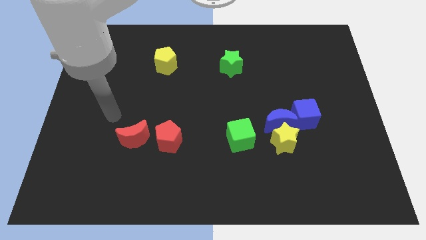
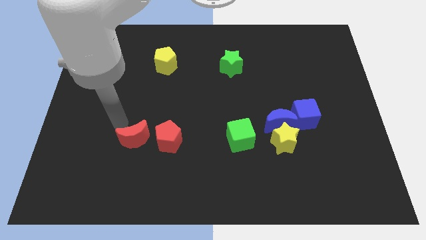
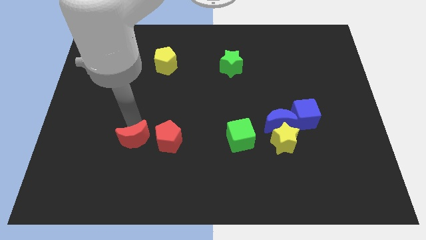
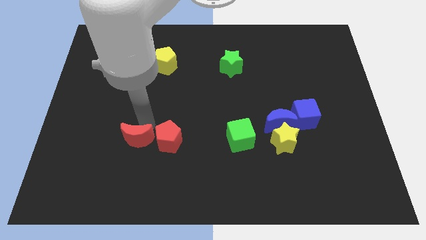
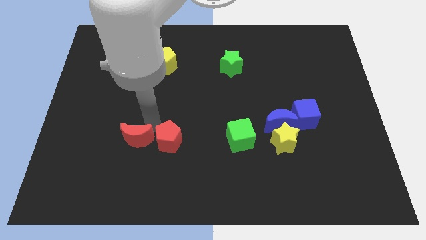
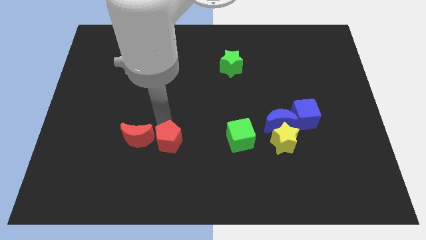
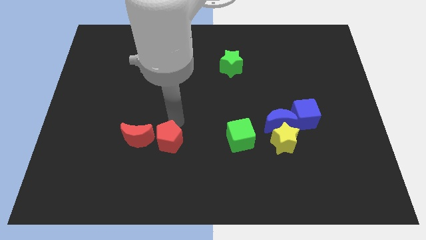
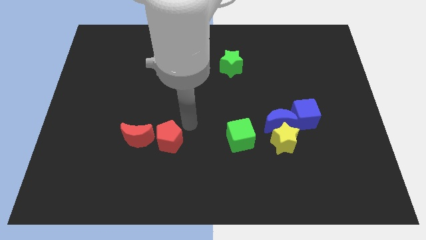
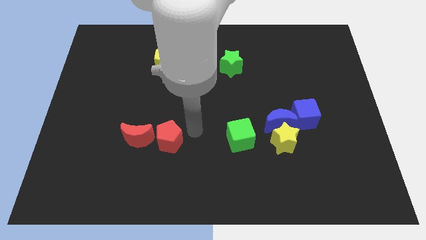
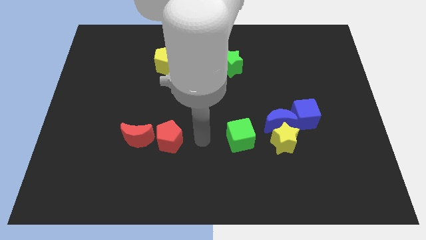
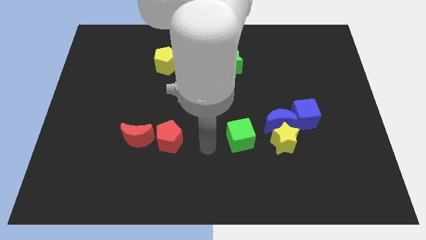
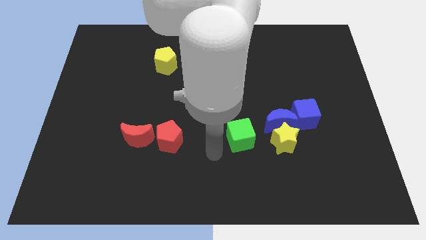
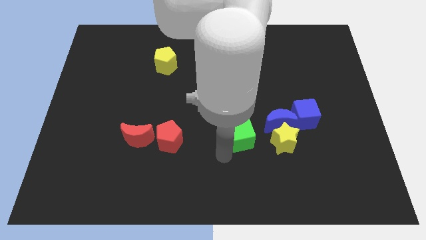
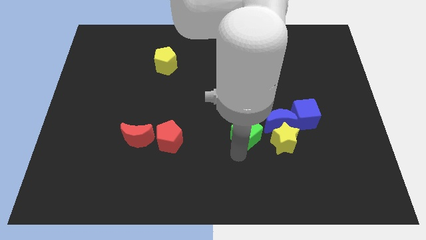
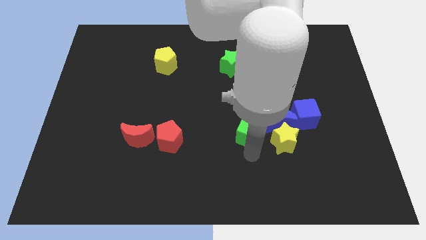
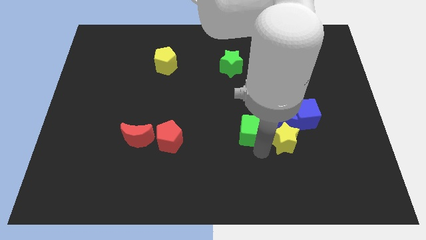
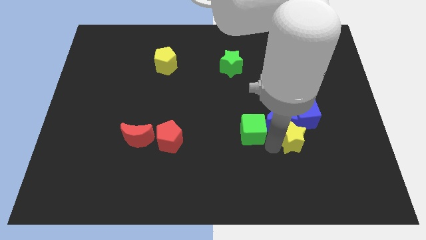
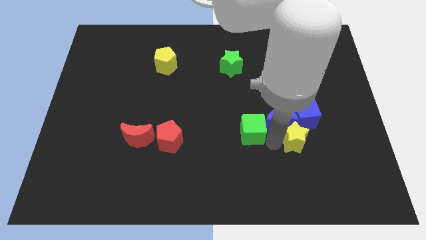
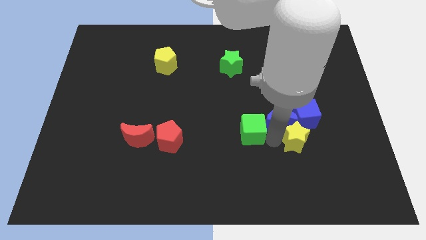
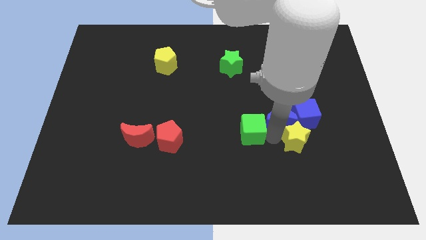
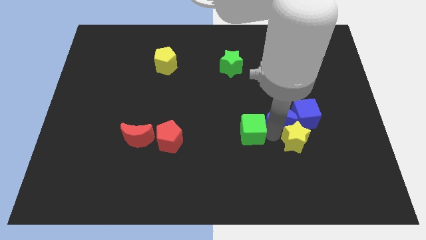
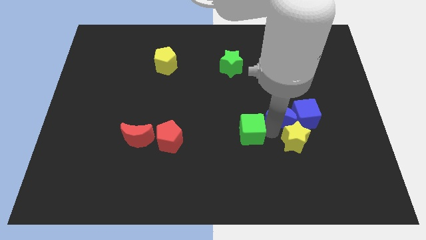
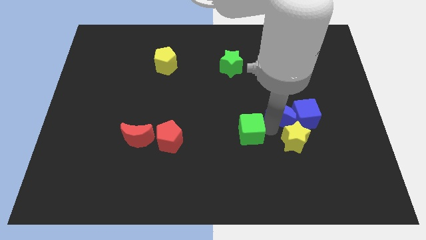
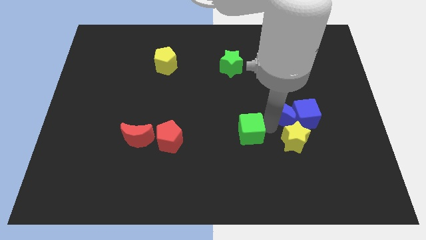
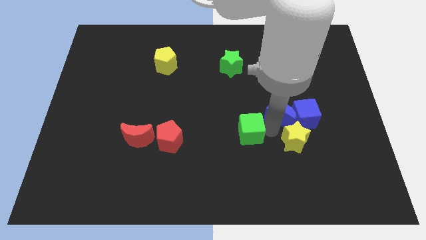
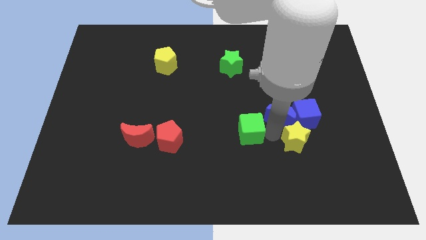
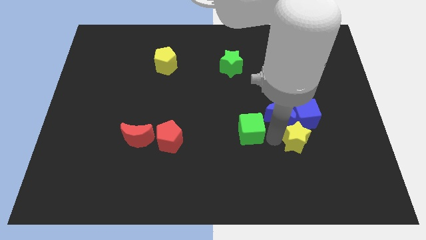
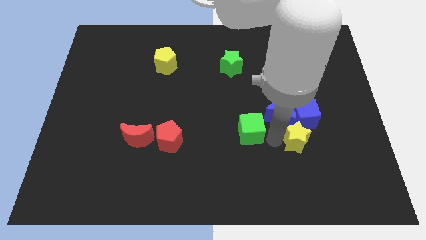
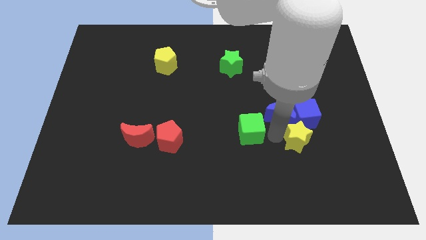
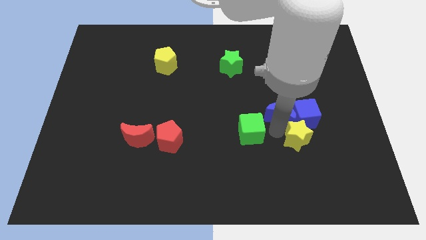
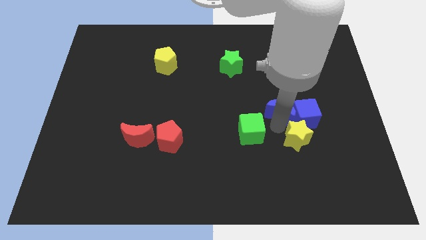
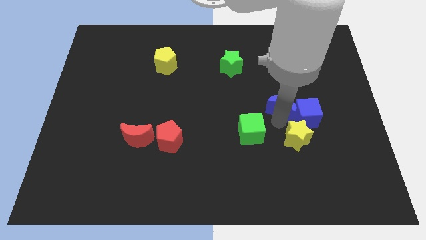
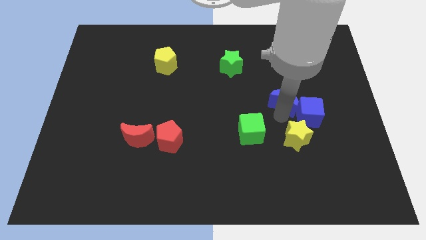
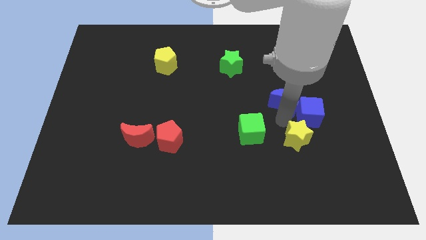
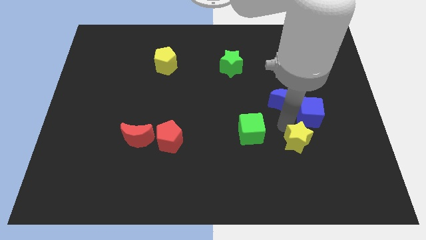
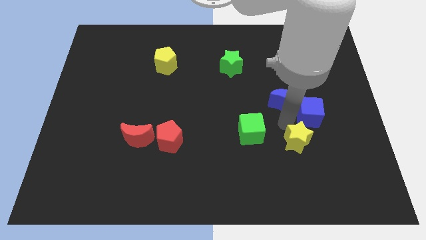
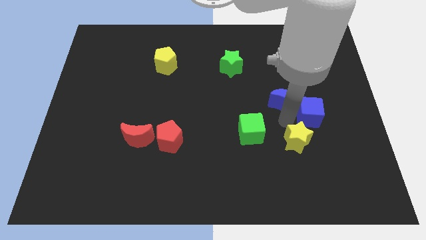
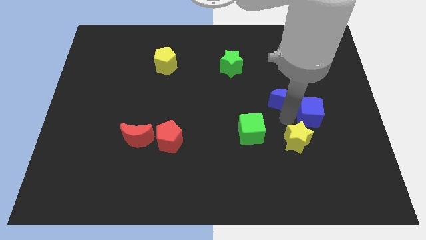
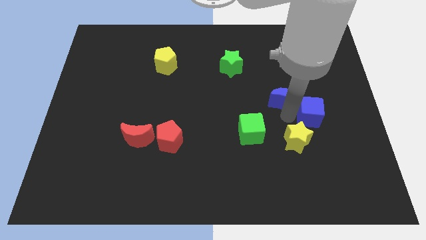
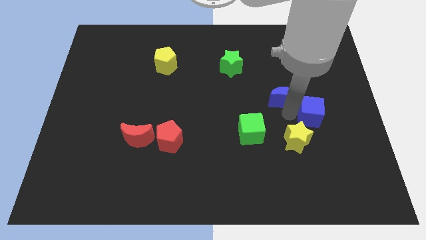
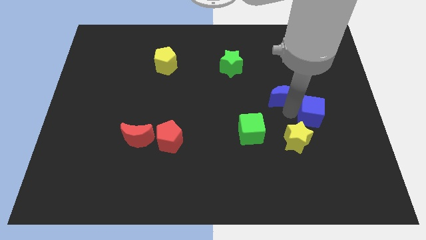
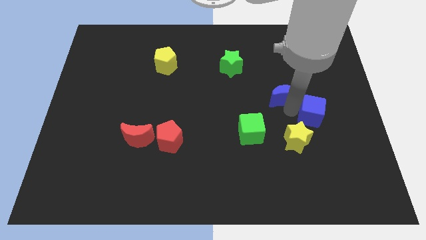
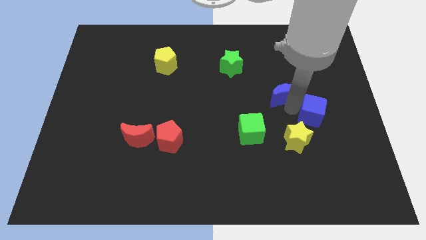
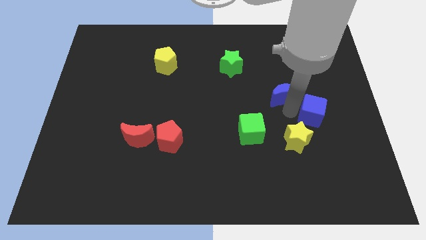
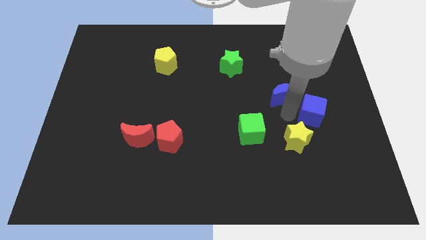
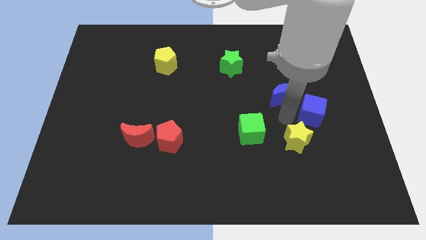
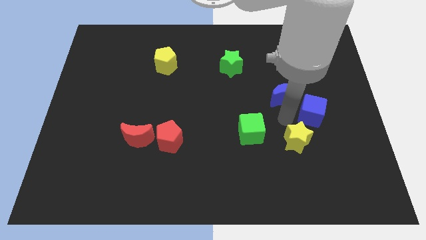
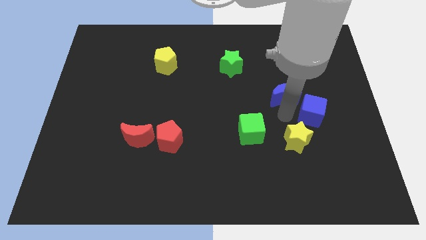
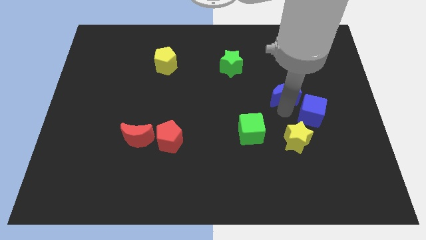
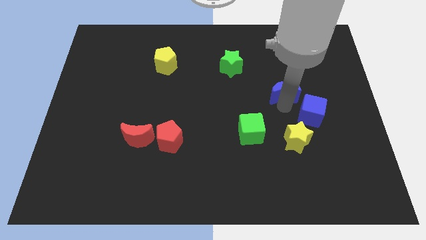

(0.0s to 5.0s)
move the blue moon away from the yellow star, blue cube, and green cube

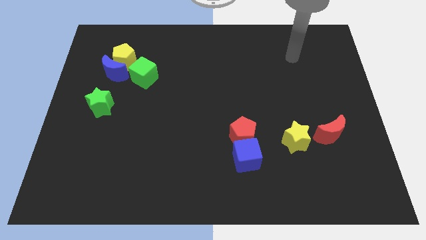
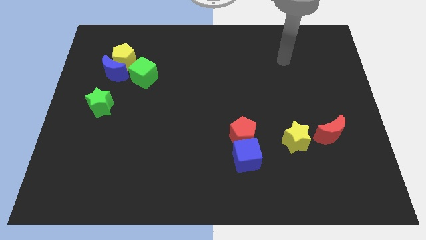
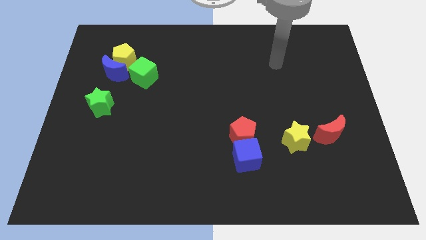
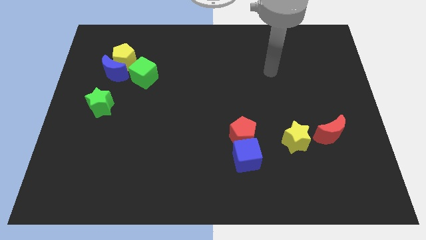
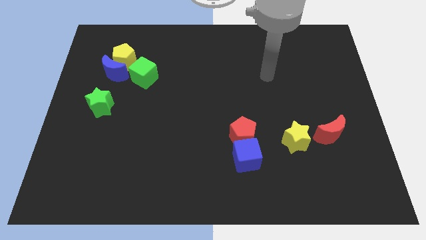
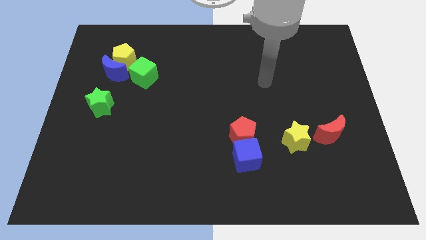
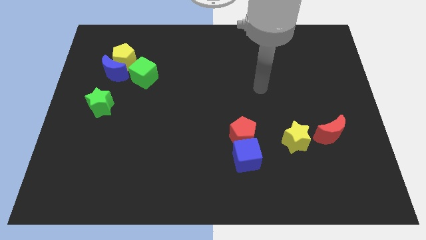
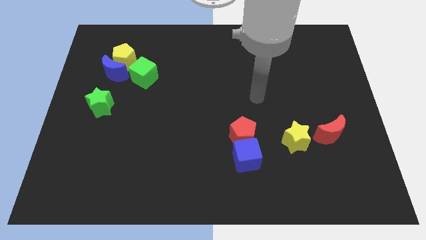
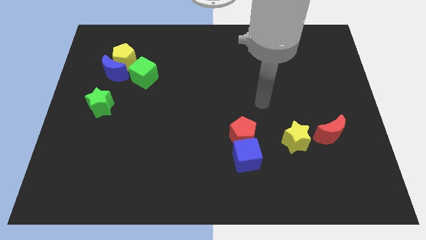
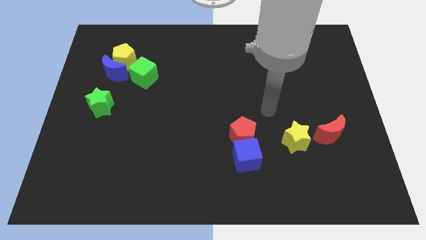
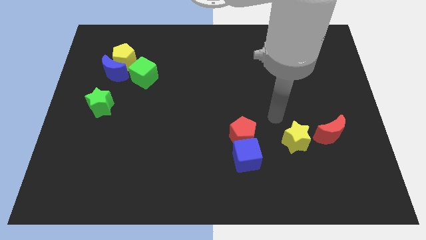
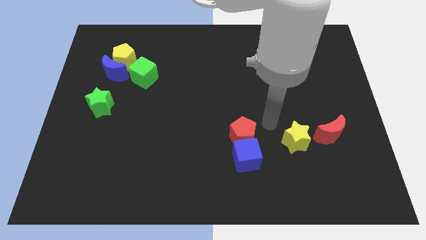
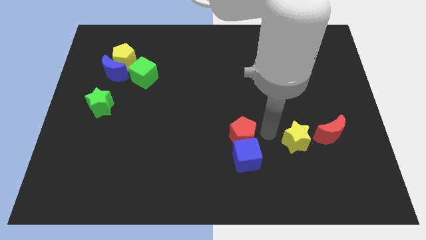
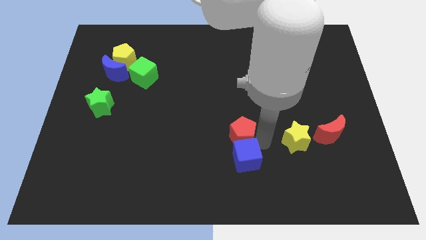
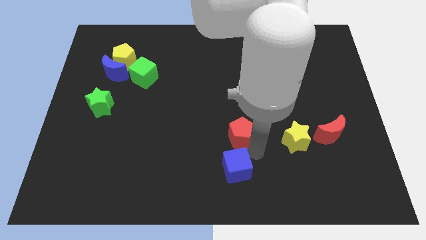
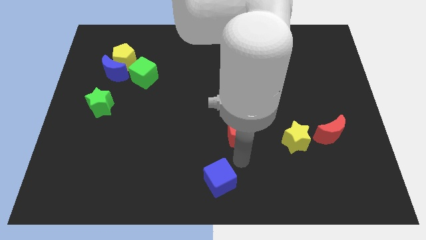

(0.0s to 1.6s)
move the red pentagon away from the blue cube

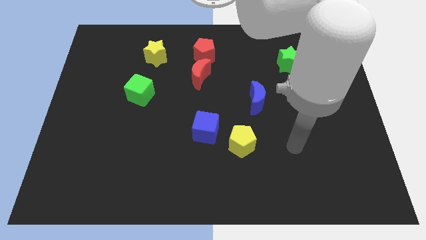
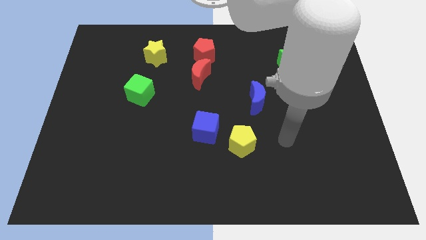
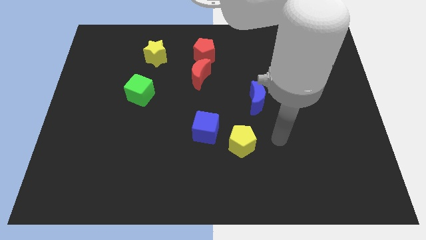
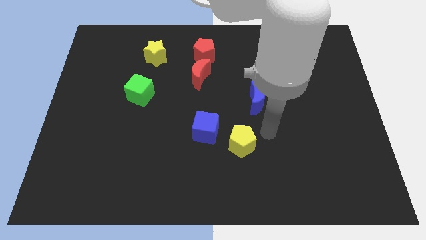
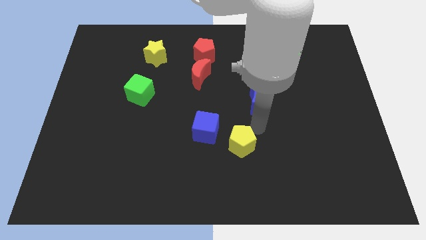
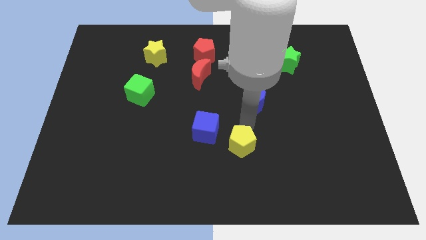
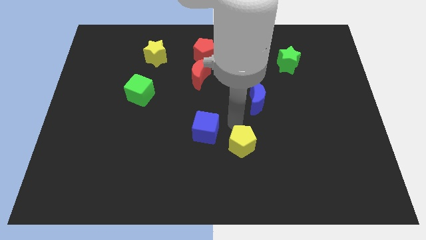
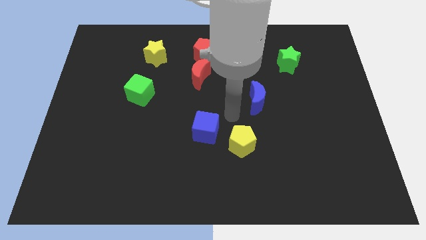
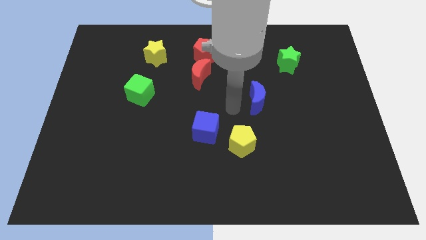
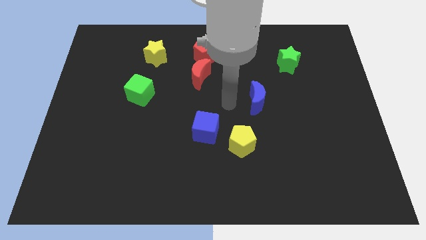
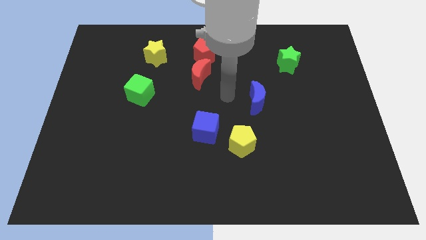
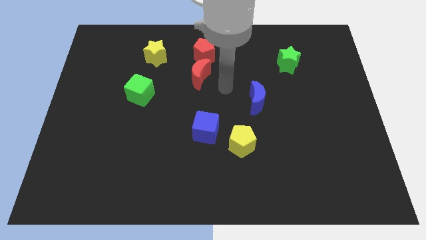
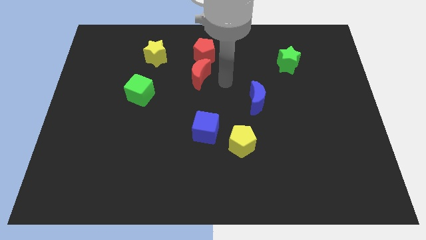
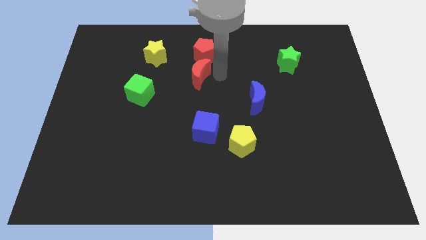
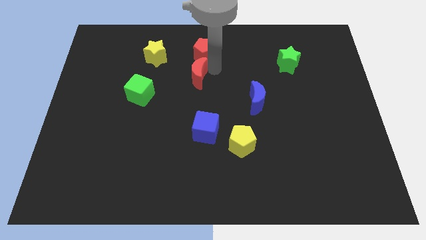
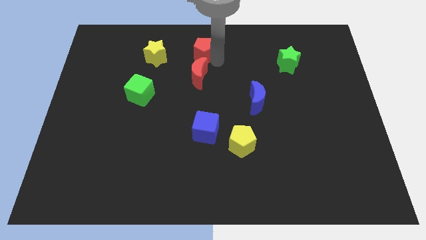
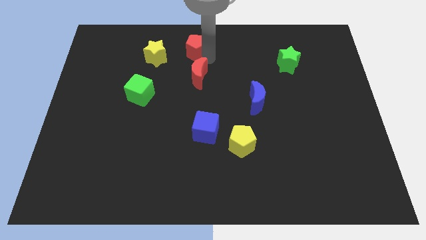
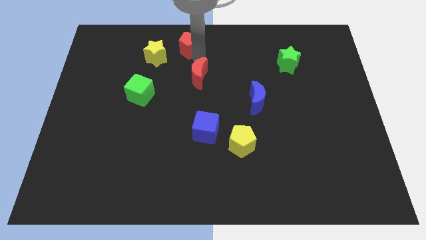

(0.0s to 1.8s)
pull the red moon apart from the red pentagon

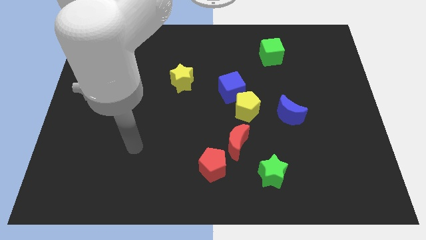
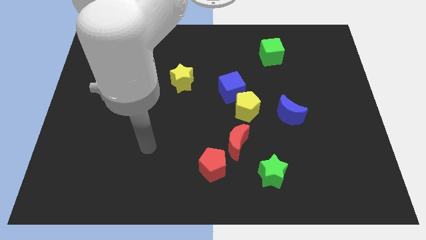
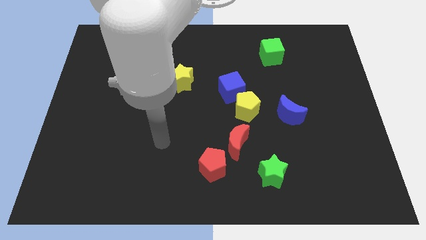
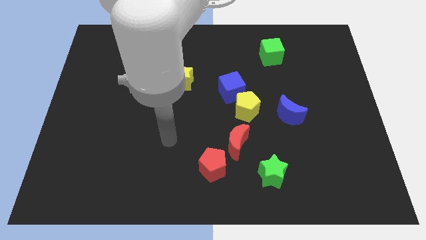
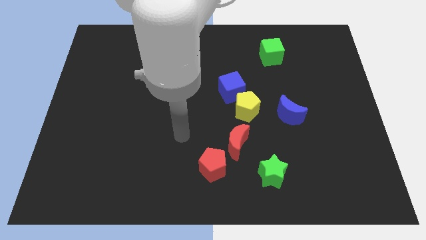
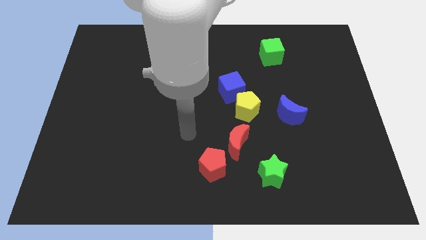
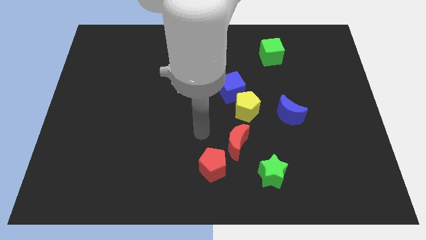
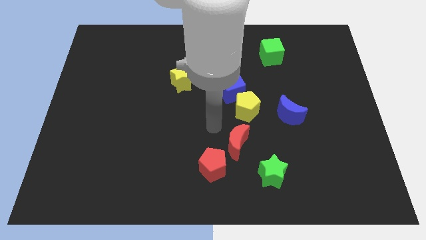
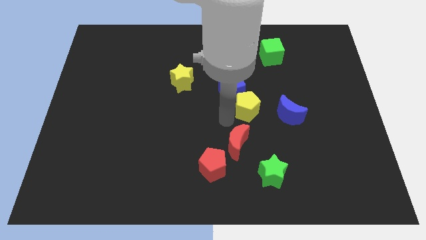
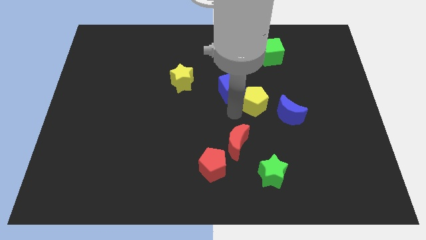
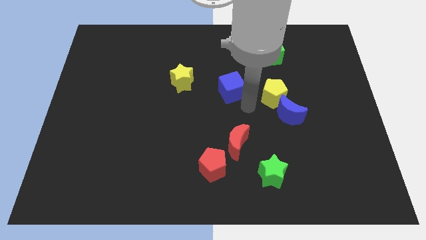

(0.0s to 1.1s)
separate the blue cube from the yellow pentagon
